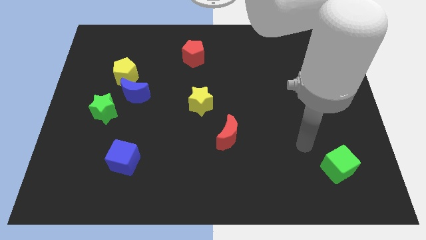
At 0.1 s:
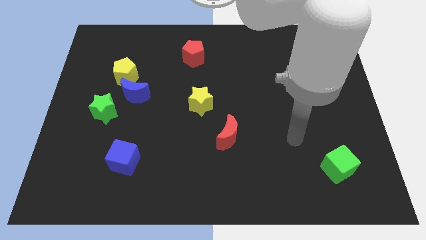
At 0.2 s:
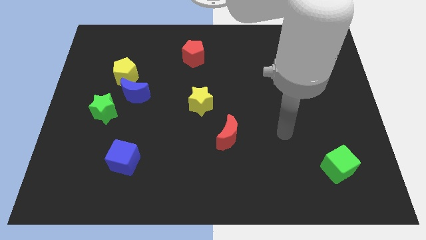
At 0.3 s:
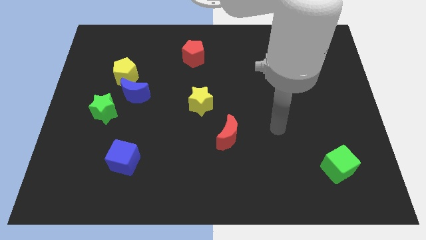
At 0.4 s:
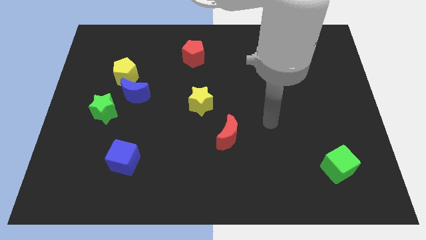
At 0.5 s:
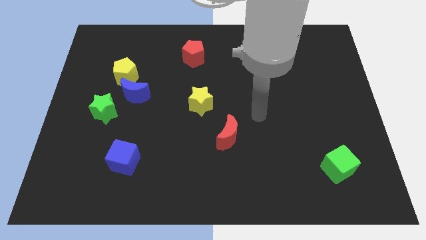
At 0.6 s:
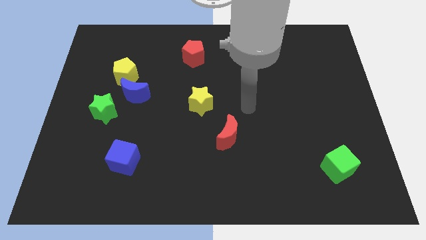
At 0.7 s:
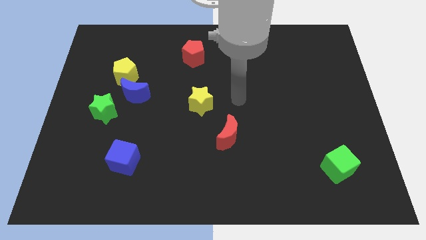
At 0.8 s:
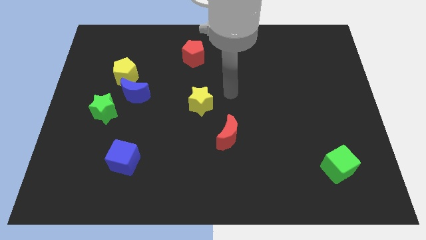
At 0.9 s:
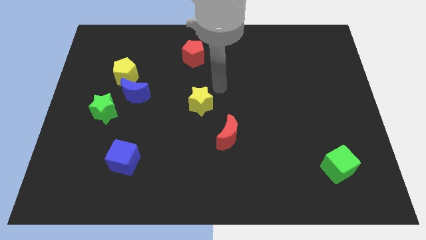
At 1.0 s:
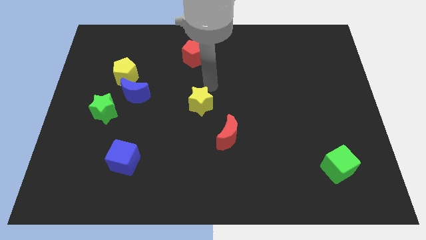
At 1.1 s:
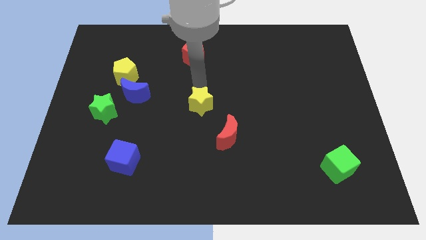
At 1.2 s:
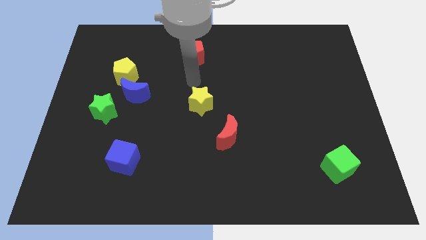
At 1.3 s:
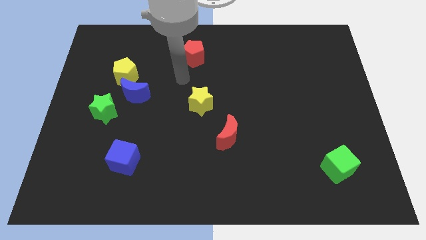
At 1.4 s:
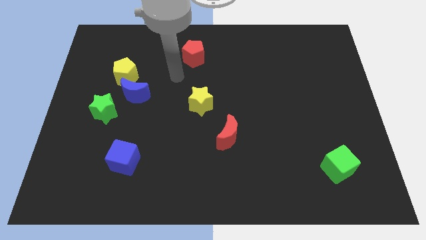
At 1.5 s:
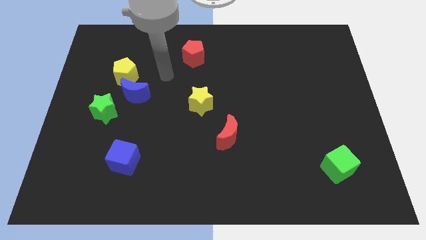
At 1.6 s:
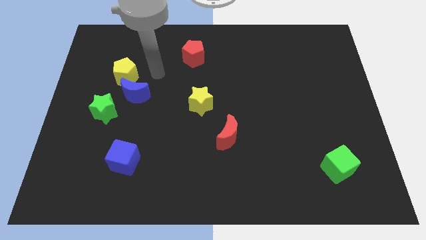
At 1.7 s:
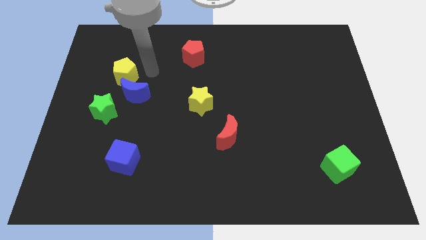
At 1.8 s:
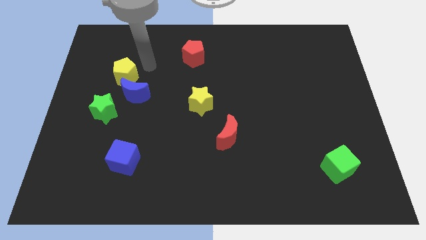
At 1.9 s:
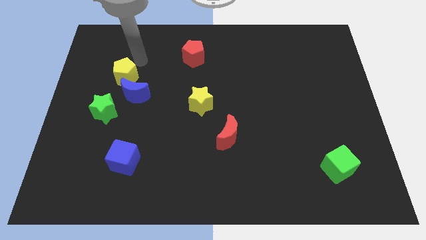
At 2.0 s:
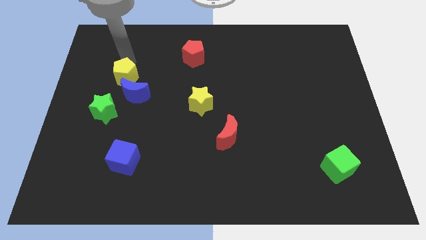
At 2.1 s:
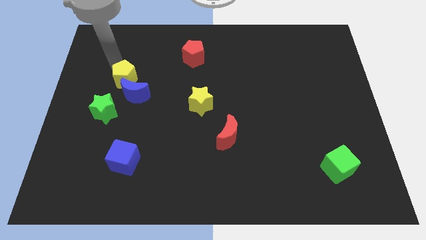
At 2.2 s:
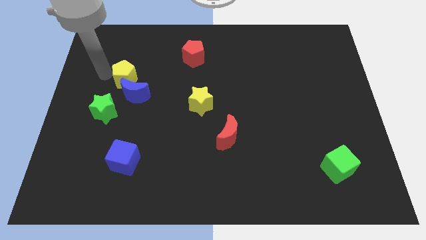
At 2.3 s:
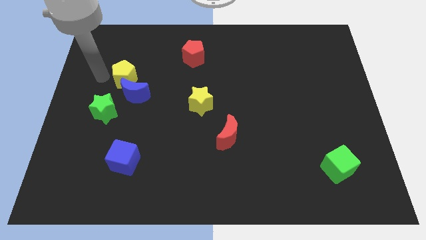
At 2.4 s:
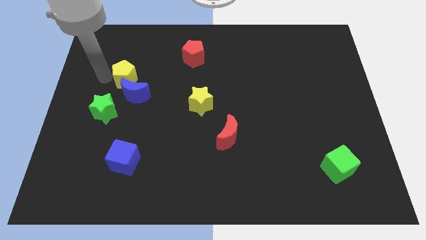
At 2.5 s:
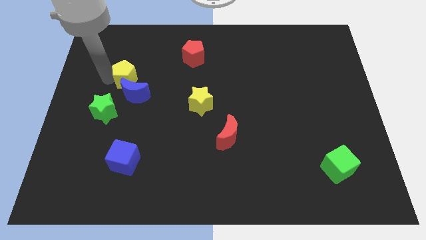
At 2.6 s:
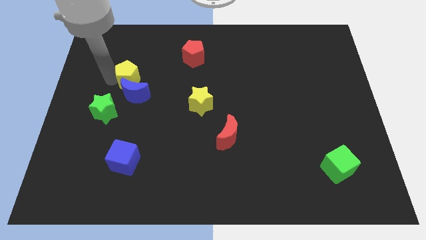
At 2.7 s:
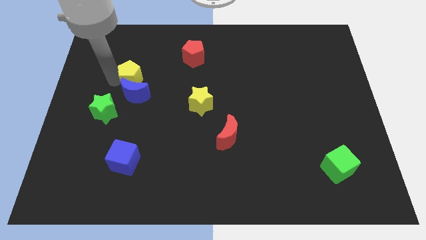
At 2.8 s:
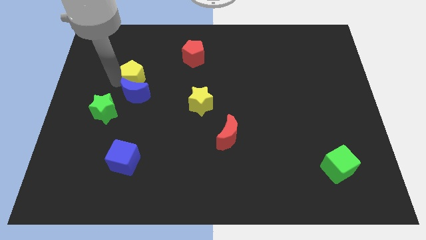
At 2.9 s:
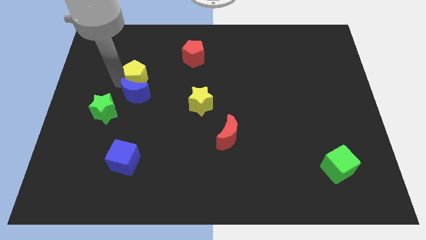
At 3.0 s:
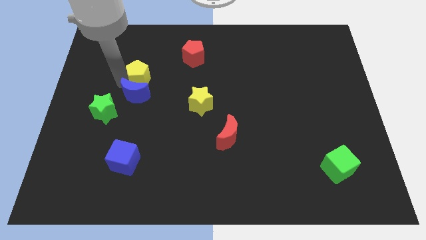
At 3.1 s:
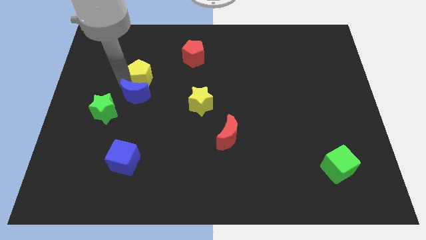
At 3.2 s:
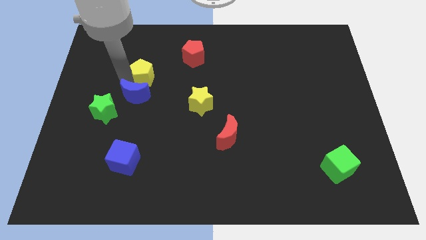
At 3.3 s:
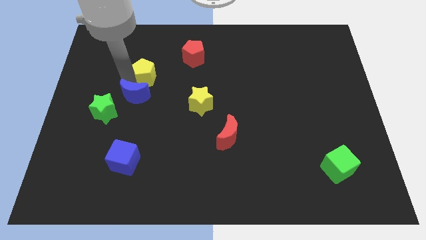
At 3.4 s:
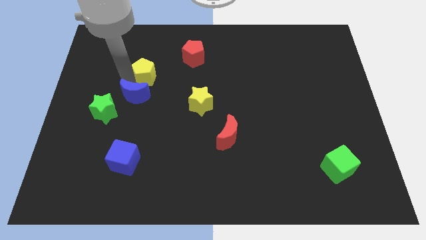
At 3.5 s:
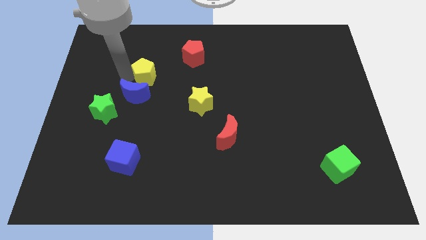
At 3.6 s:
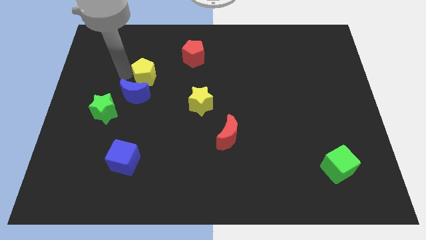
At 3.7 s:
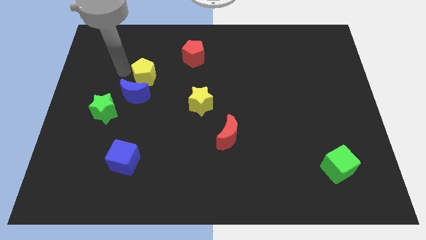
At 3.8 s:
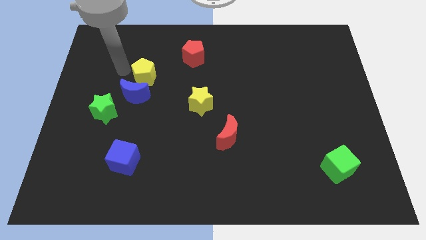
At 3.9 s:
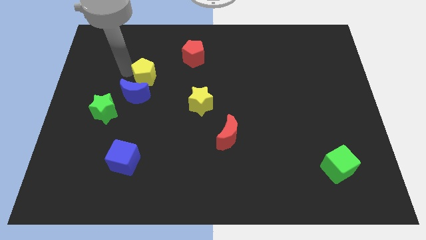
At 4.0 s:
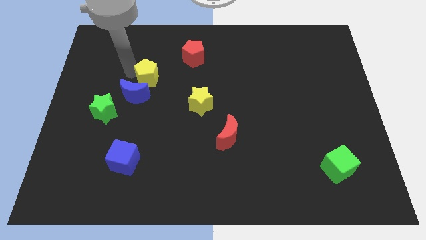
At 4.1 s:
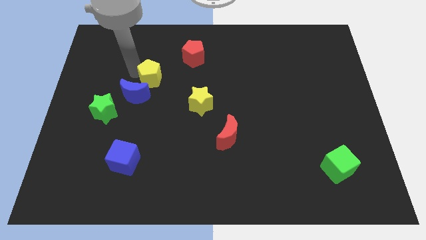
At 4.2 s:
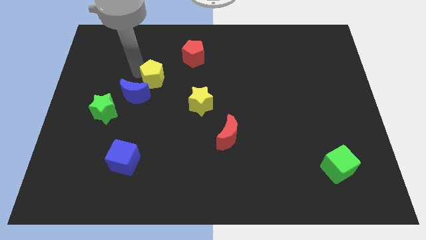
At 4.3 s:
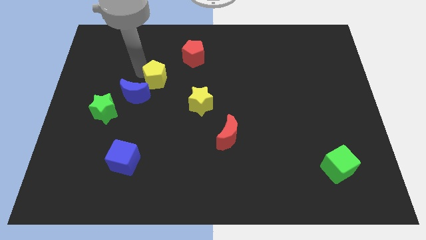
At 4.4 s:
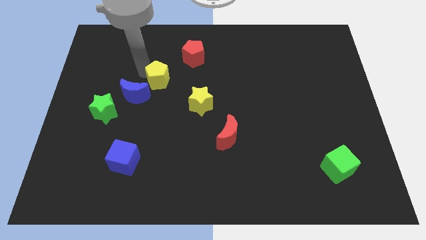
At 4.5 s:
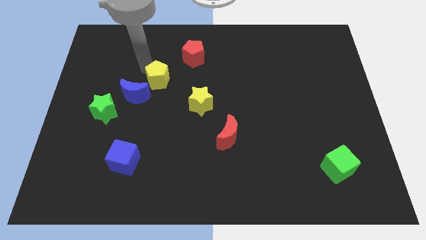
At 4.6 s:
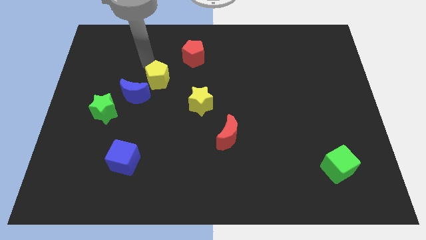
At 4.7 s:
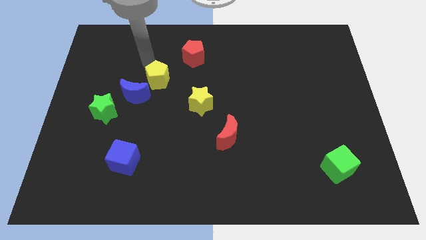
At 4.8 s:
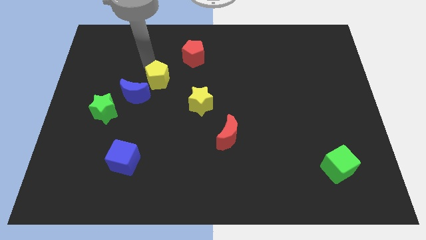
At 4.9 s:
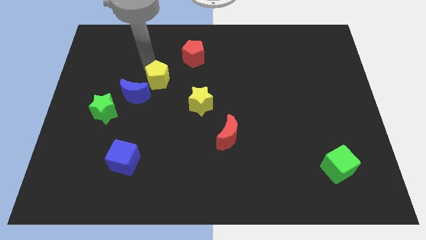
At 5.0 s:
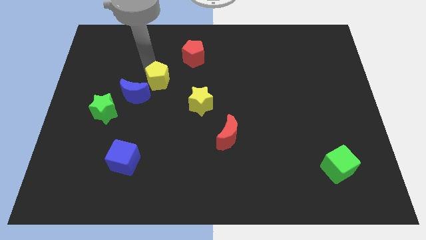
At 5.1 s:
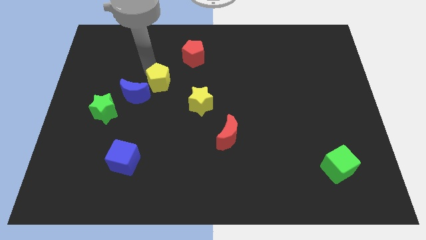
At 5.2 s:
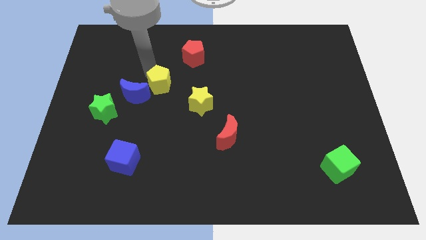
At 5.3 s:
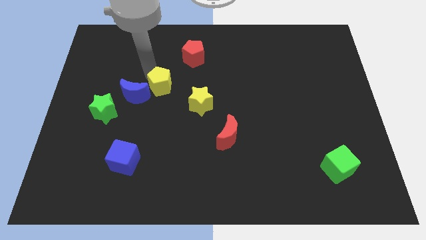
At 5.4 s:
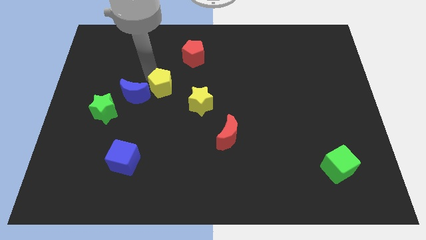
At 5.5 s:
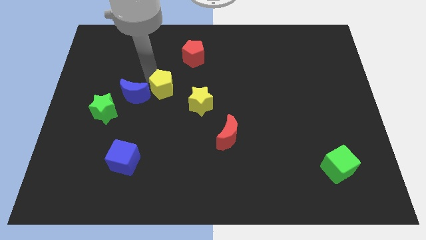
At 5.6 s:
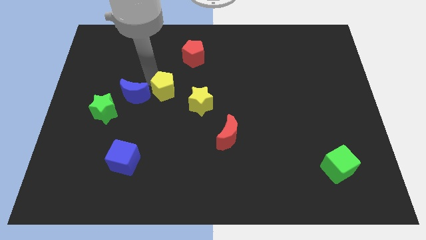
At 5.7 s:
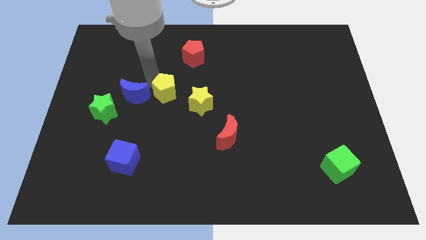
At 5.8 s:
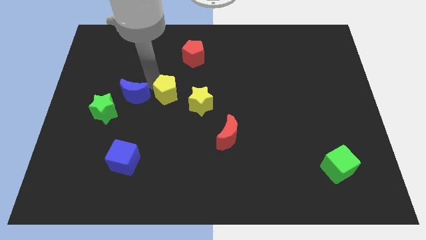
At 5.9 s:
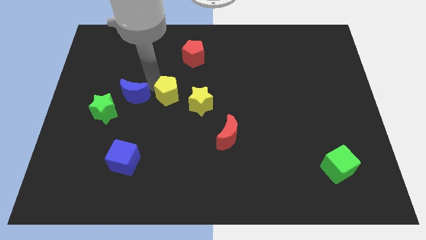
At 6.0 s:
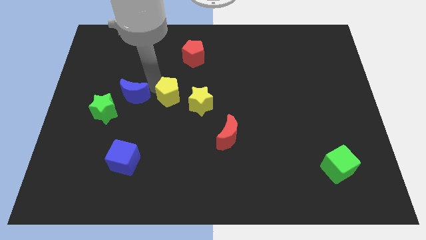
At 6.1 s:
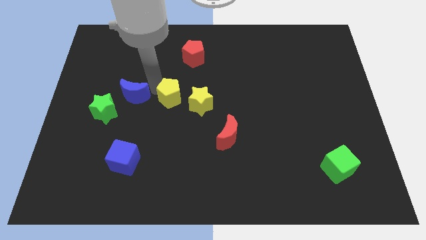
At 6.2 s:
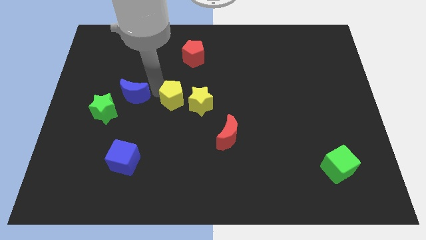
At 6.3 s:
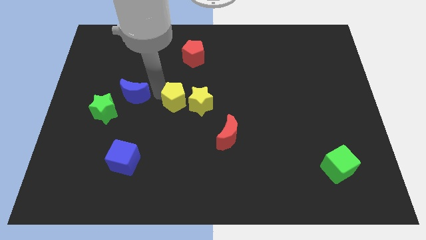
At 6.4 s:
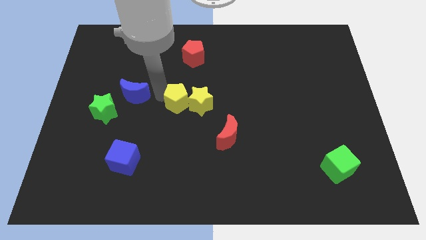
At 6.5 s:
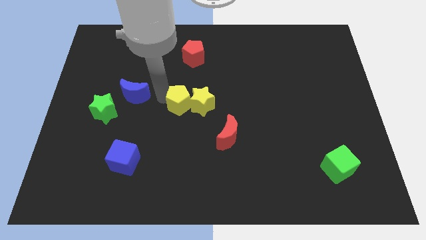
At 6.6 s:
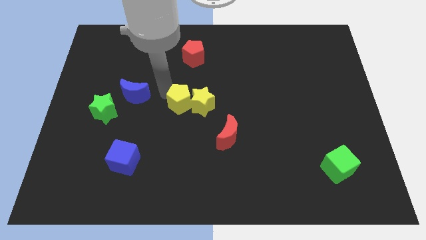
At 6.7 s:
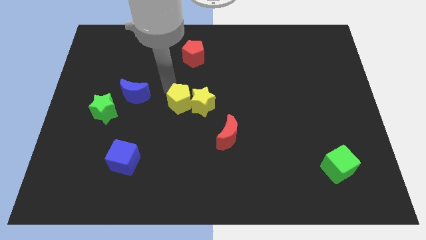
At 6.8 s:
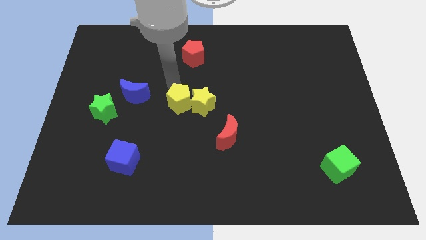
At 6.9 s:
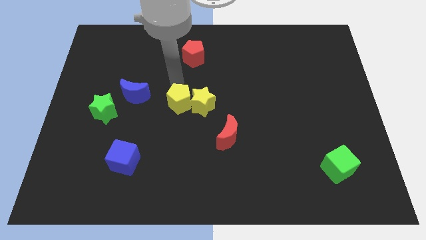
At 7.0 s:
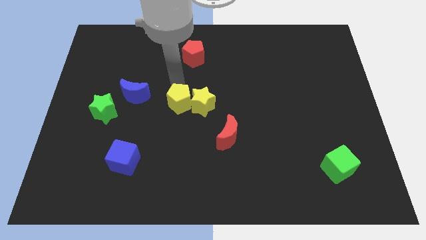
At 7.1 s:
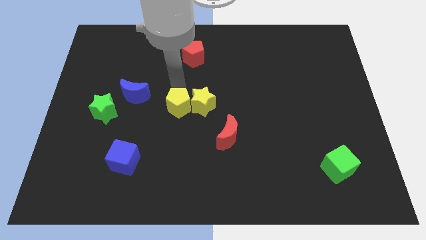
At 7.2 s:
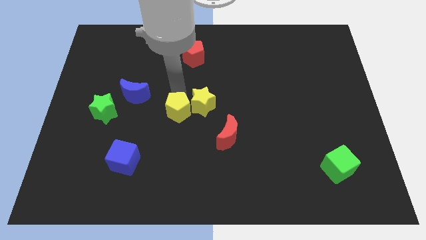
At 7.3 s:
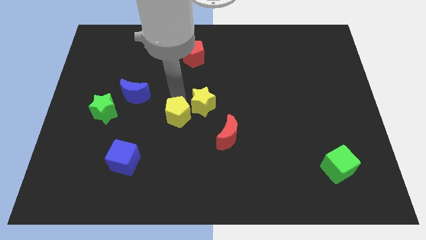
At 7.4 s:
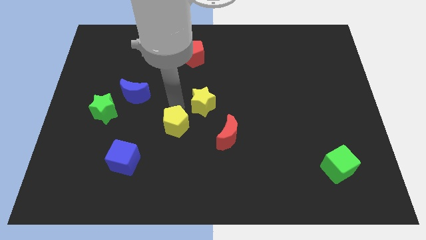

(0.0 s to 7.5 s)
slide the yellow pentagon down and right

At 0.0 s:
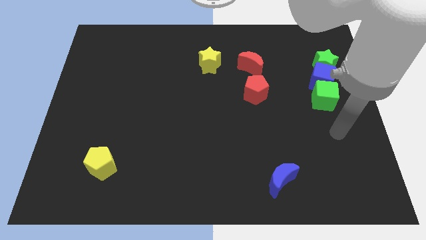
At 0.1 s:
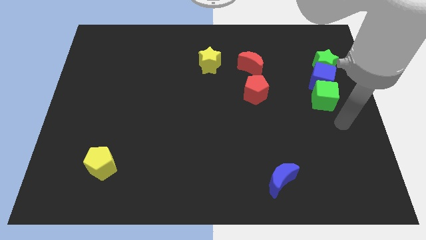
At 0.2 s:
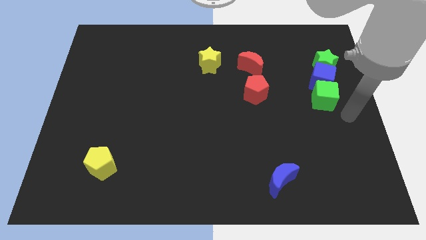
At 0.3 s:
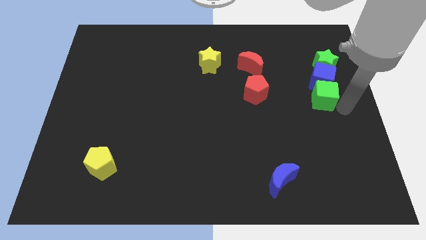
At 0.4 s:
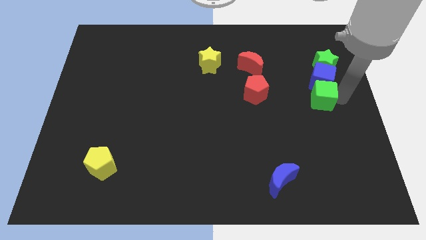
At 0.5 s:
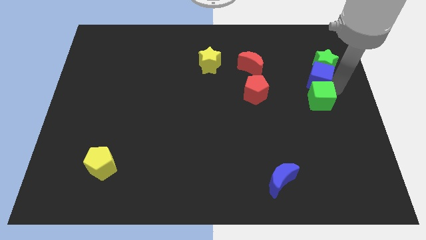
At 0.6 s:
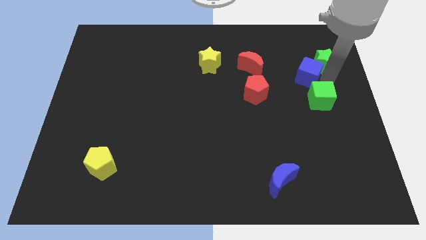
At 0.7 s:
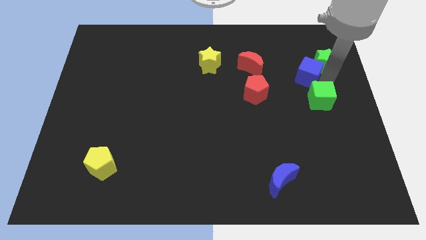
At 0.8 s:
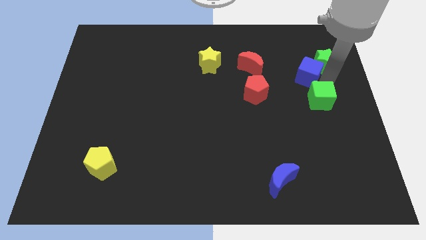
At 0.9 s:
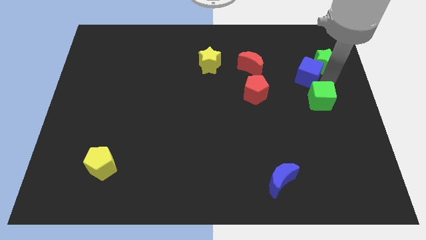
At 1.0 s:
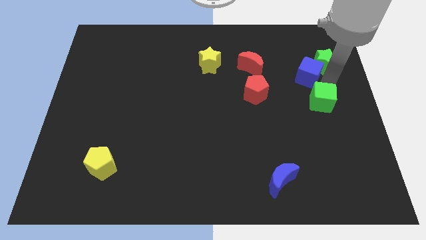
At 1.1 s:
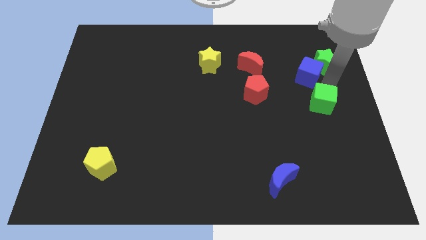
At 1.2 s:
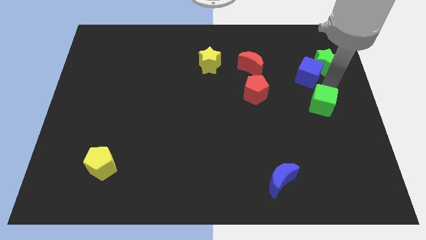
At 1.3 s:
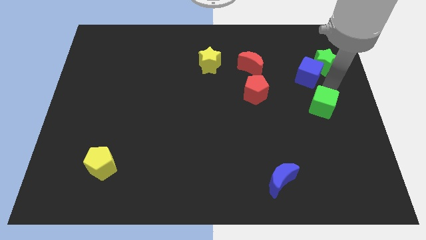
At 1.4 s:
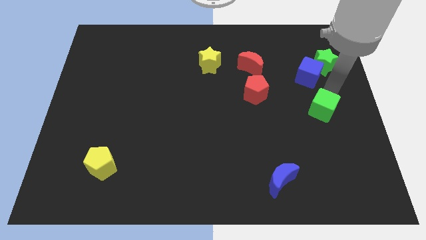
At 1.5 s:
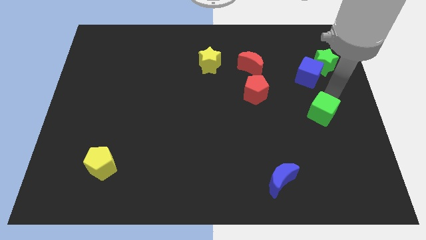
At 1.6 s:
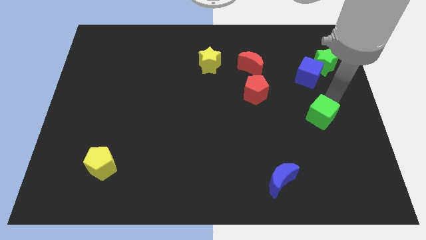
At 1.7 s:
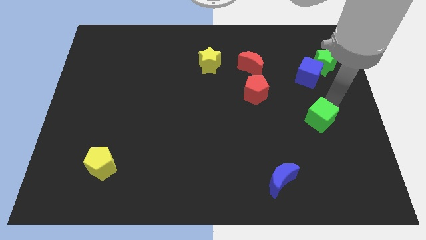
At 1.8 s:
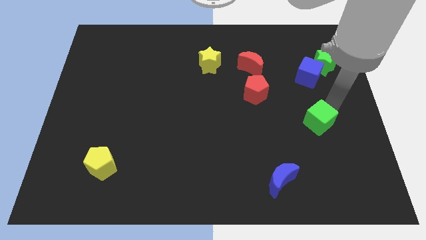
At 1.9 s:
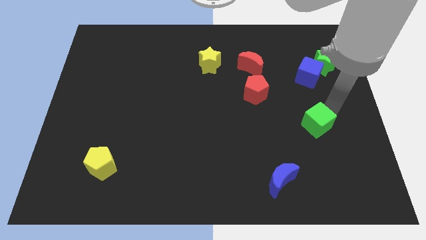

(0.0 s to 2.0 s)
slightly push the green cube downwards and left diagonally
